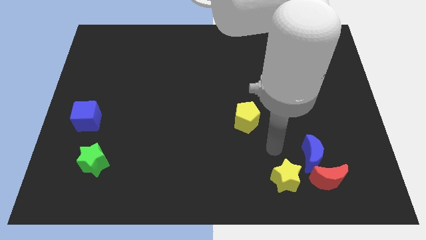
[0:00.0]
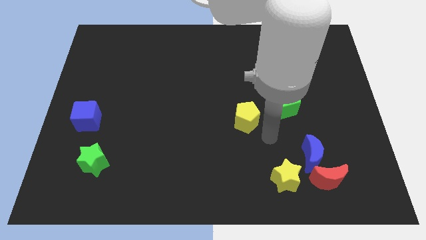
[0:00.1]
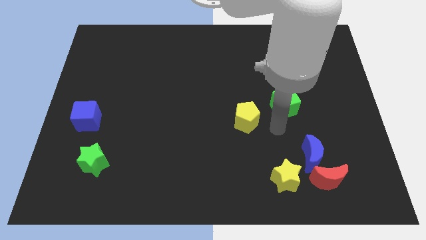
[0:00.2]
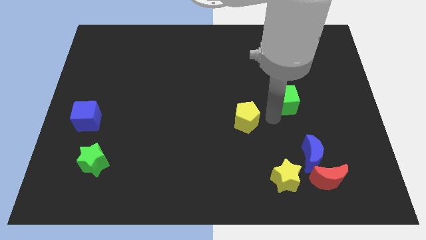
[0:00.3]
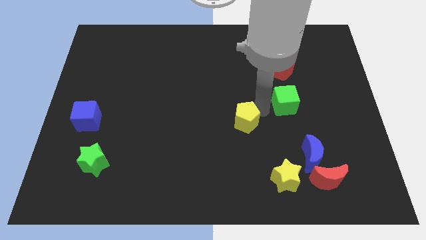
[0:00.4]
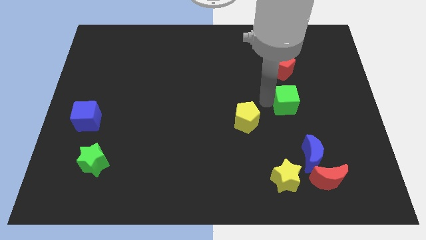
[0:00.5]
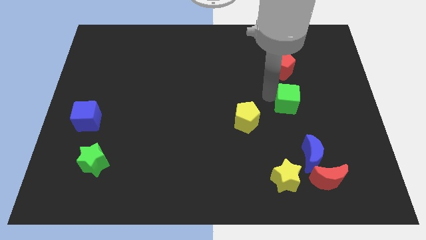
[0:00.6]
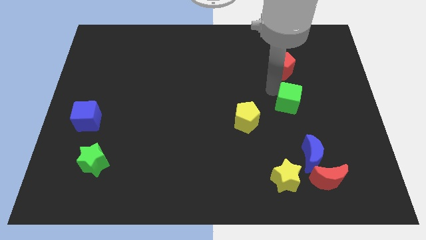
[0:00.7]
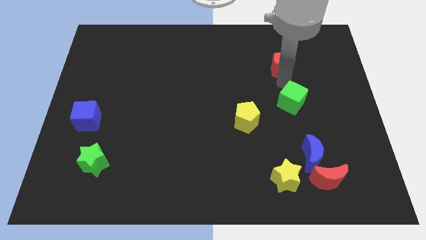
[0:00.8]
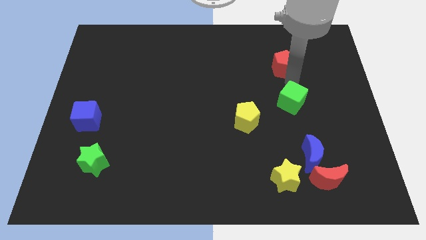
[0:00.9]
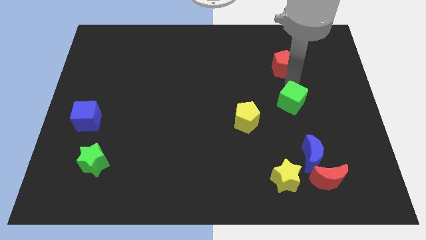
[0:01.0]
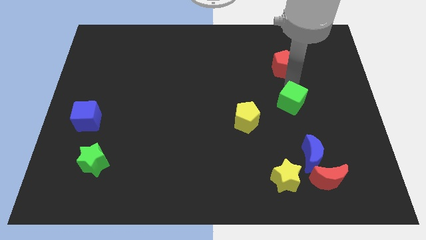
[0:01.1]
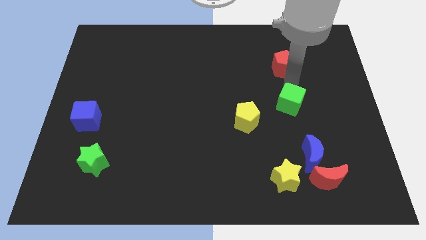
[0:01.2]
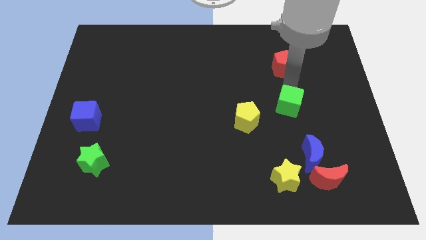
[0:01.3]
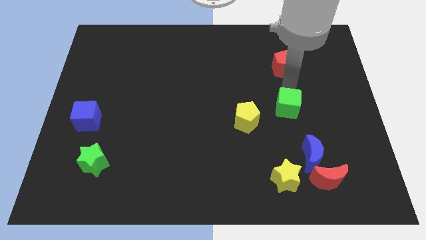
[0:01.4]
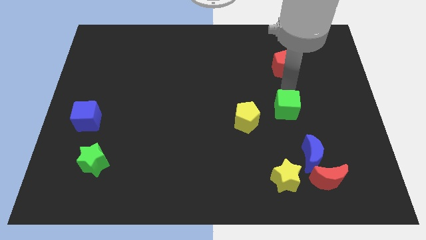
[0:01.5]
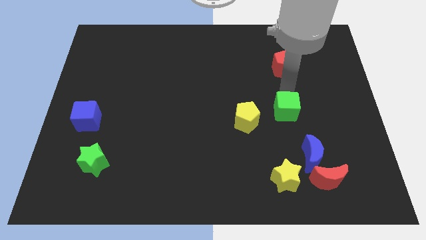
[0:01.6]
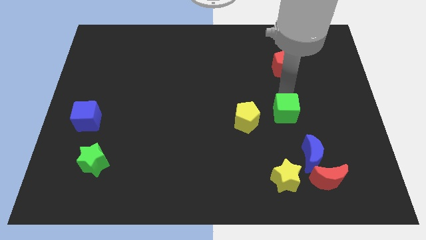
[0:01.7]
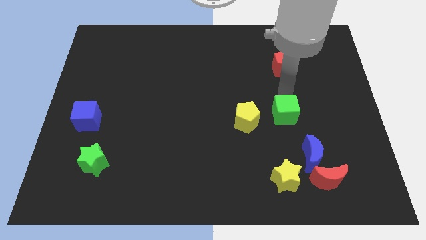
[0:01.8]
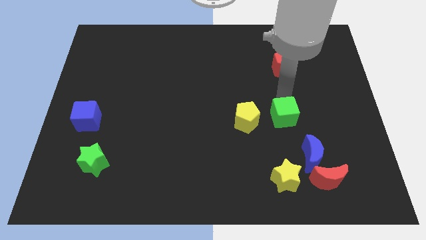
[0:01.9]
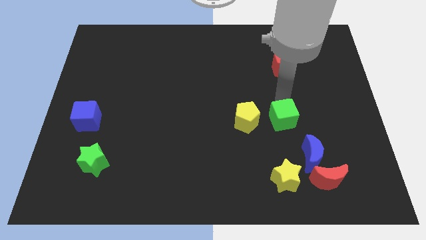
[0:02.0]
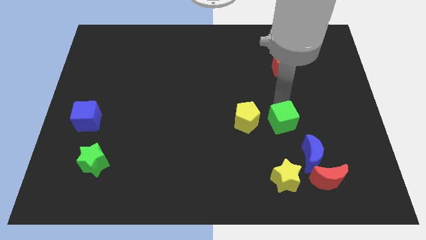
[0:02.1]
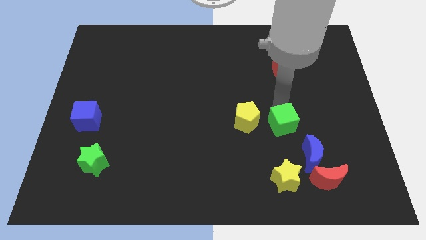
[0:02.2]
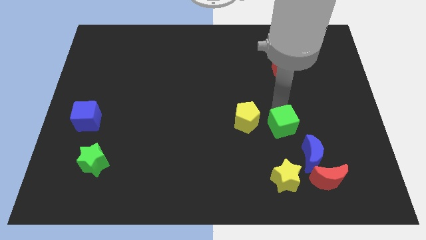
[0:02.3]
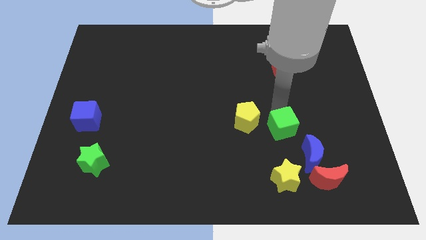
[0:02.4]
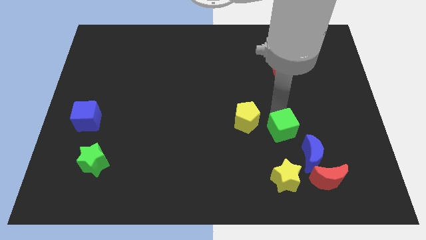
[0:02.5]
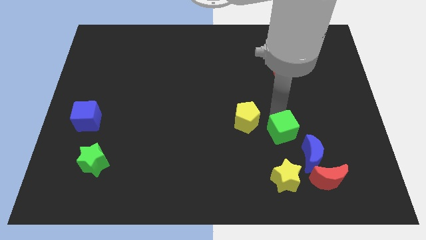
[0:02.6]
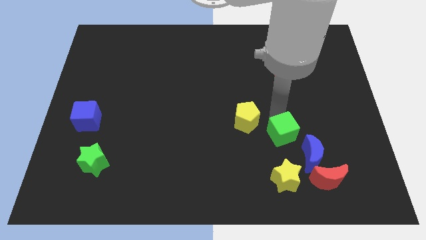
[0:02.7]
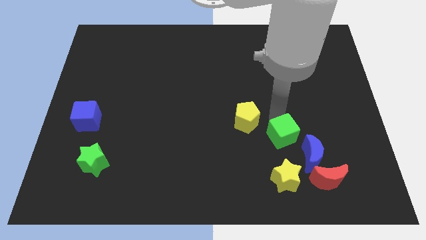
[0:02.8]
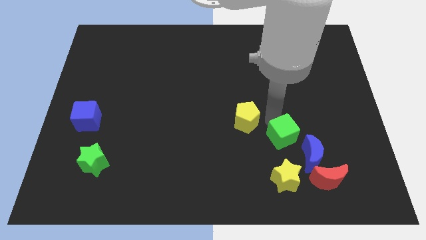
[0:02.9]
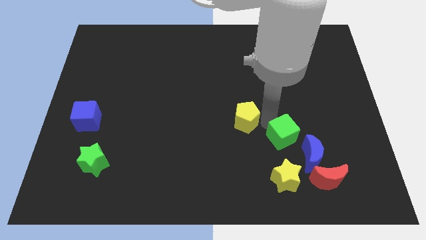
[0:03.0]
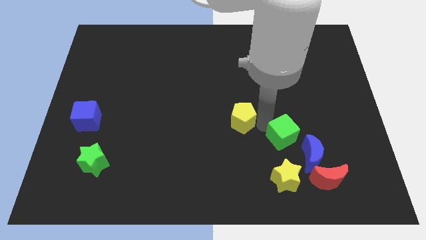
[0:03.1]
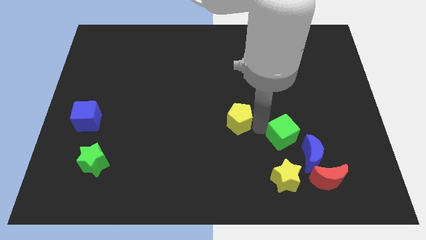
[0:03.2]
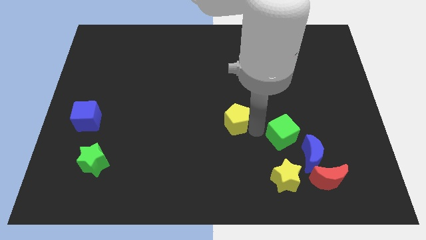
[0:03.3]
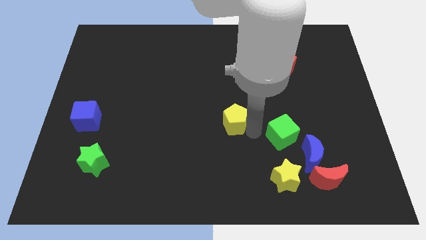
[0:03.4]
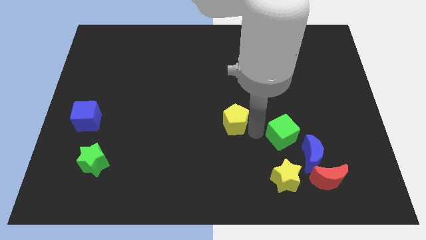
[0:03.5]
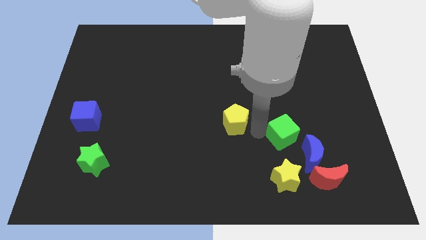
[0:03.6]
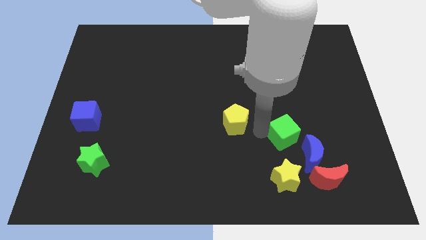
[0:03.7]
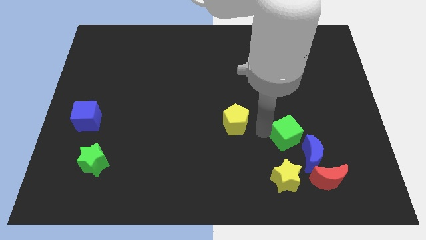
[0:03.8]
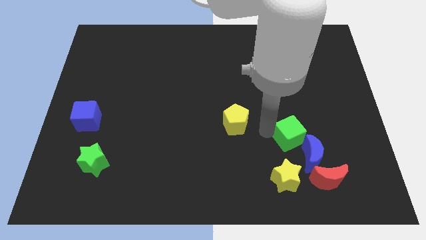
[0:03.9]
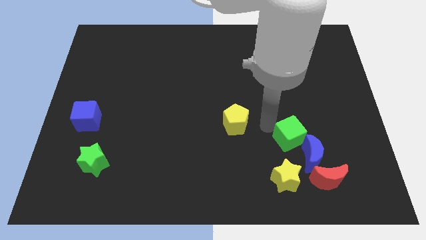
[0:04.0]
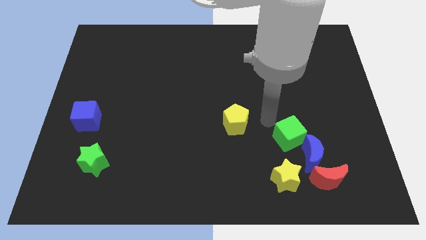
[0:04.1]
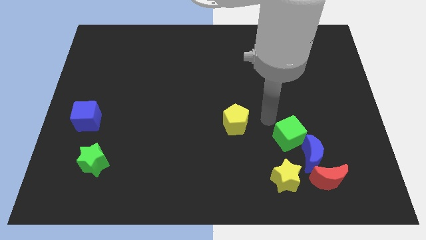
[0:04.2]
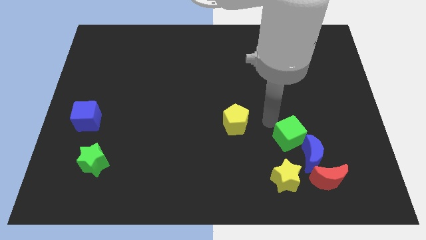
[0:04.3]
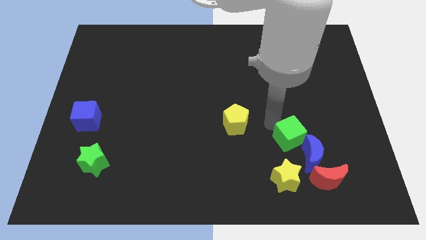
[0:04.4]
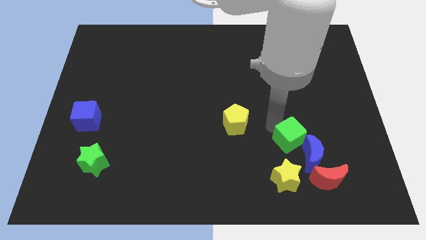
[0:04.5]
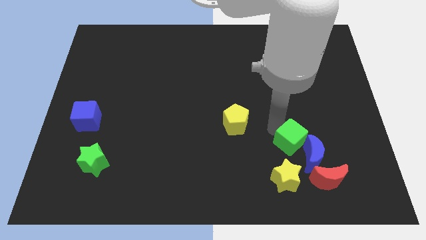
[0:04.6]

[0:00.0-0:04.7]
push the green cube towards the blue moon

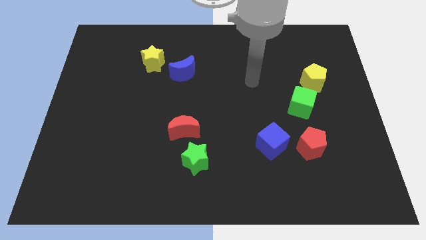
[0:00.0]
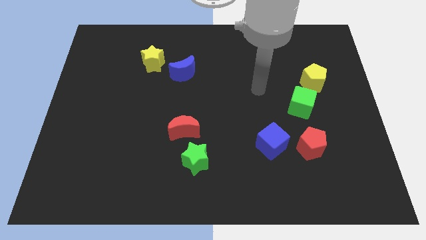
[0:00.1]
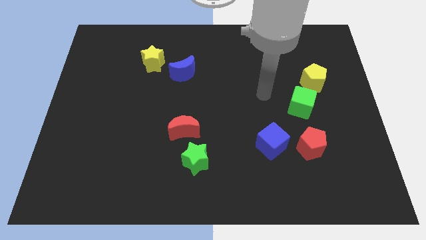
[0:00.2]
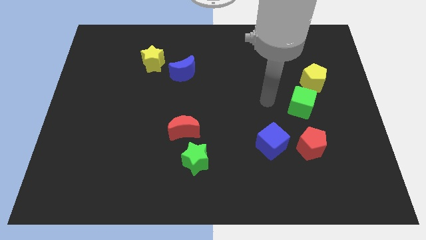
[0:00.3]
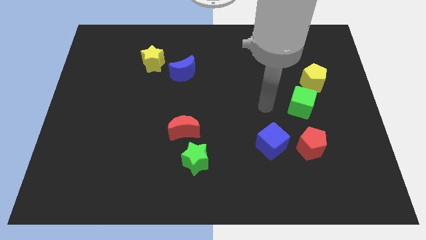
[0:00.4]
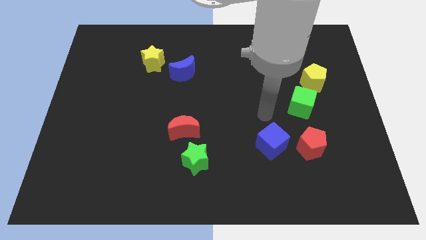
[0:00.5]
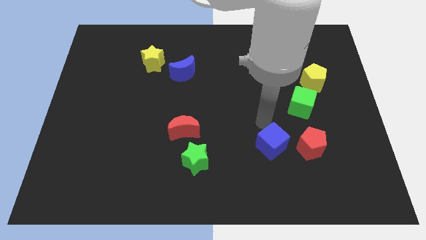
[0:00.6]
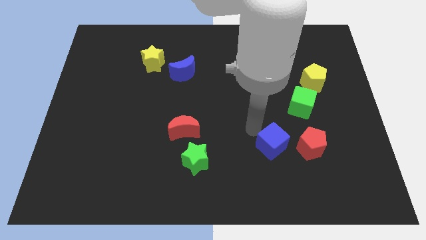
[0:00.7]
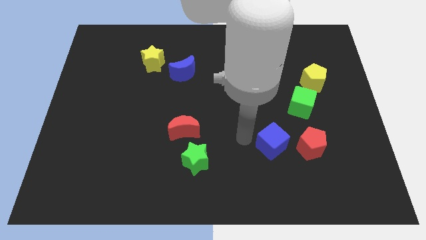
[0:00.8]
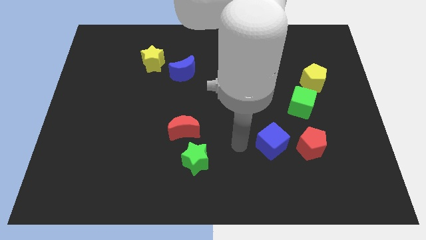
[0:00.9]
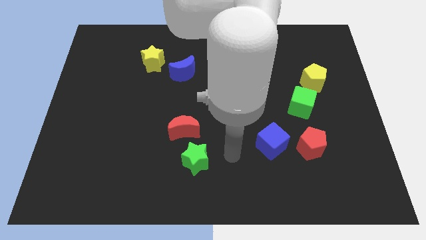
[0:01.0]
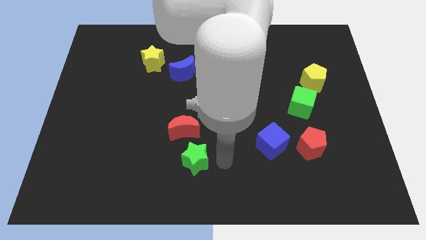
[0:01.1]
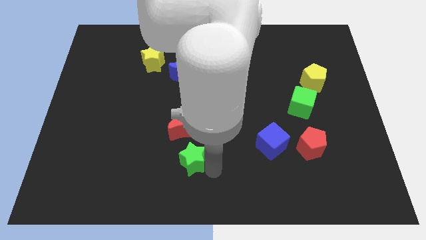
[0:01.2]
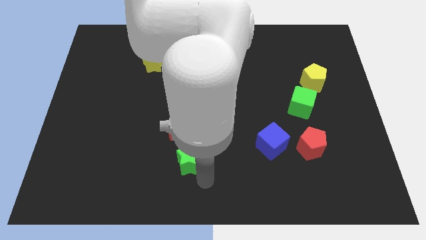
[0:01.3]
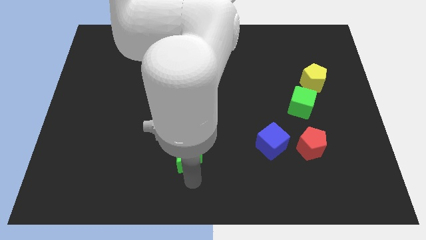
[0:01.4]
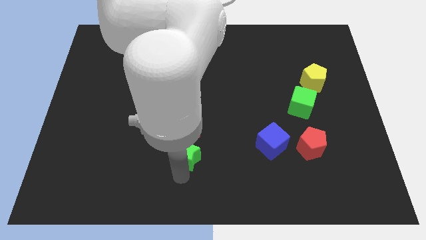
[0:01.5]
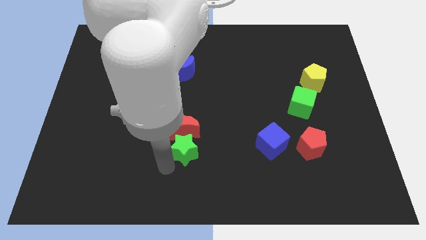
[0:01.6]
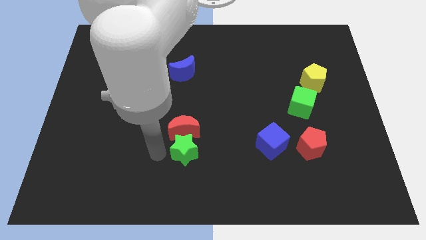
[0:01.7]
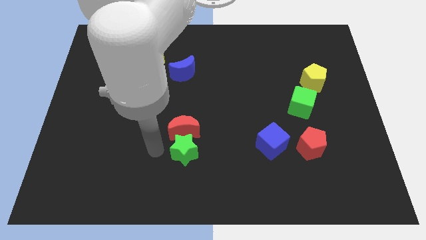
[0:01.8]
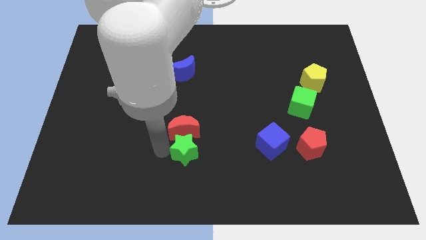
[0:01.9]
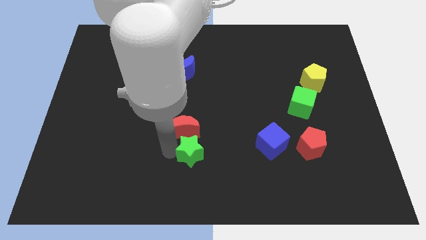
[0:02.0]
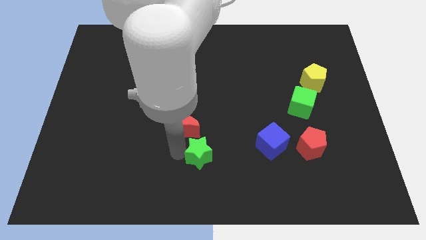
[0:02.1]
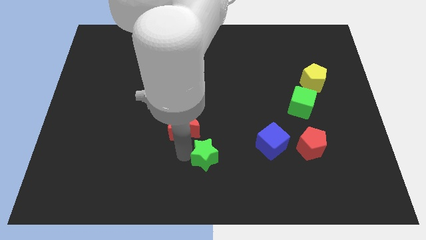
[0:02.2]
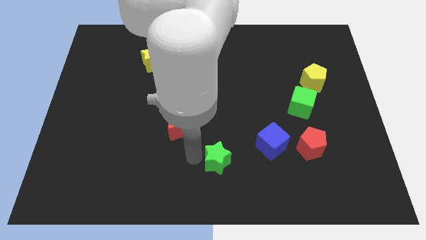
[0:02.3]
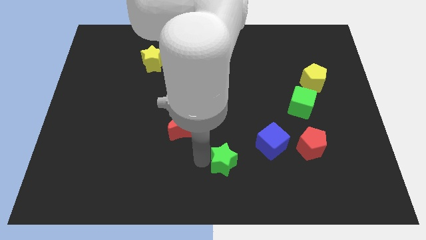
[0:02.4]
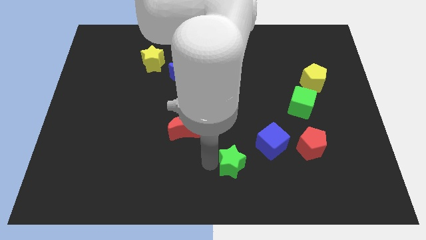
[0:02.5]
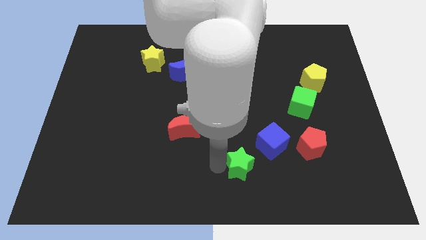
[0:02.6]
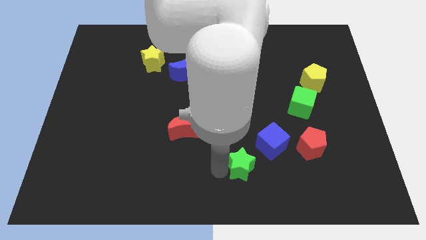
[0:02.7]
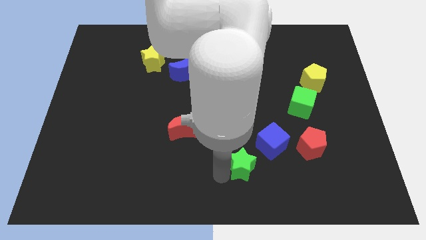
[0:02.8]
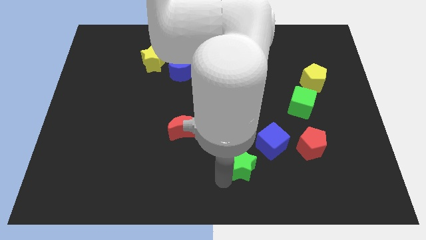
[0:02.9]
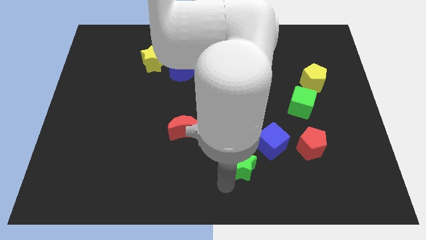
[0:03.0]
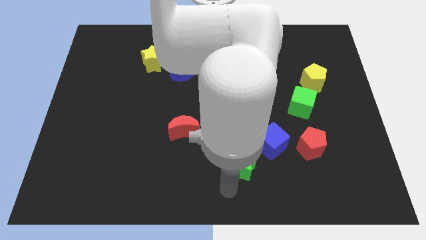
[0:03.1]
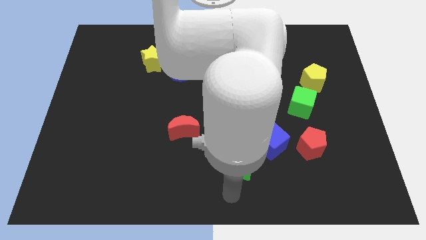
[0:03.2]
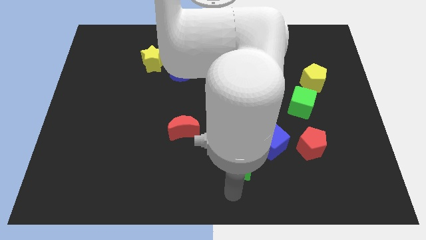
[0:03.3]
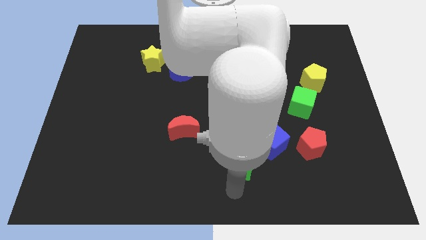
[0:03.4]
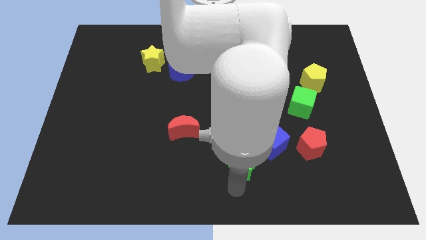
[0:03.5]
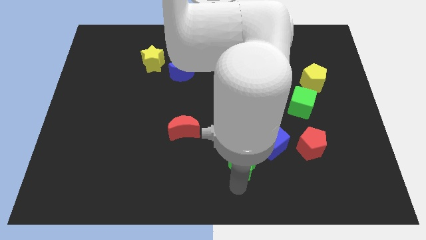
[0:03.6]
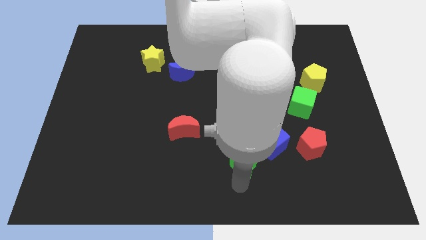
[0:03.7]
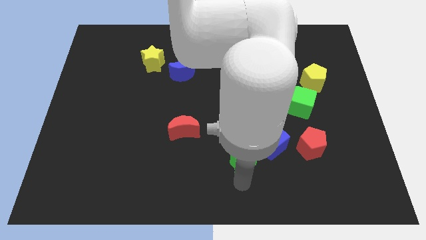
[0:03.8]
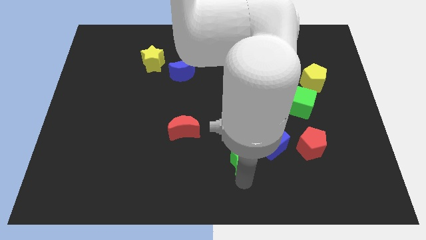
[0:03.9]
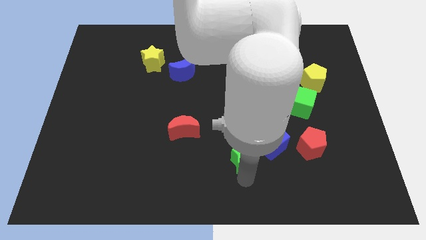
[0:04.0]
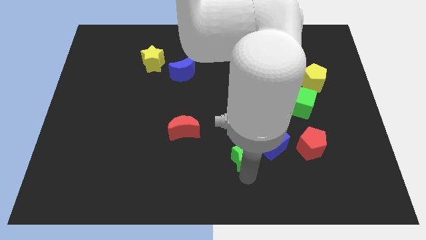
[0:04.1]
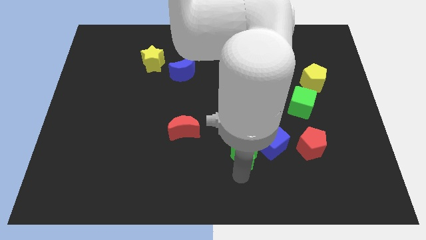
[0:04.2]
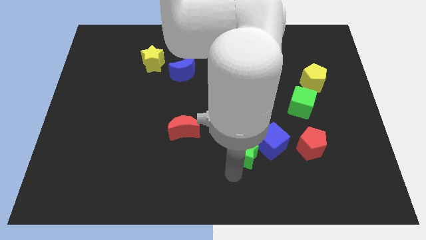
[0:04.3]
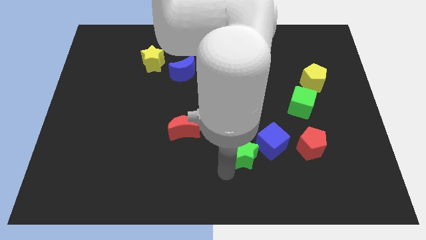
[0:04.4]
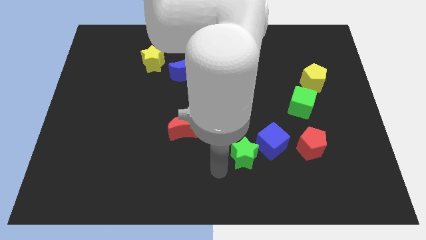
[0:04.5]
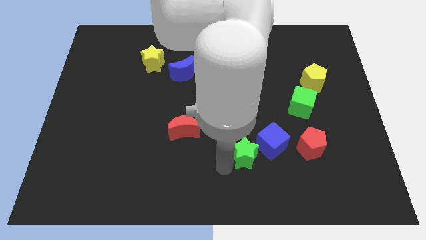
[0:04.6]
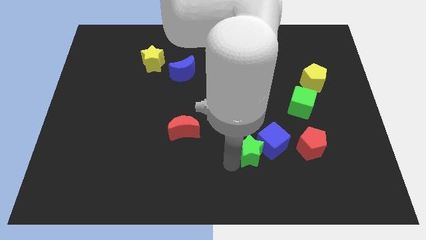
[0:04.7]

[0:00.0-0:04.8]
move the green star next to the blue cube
